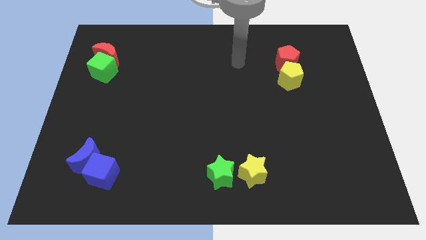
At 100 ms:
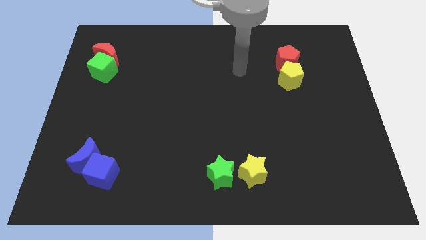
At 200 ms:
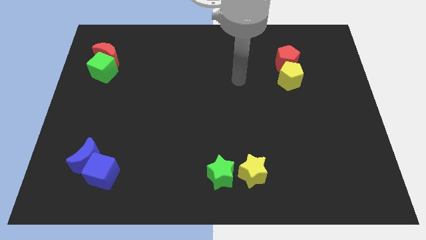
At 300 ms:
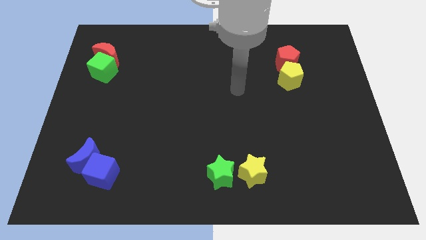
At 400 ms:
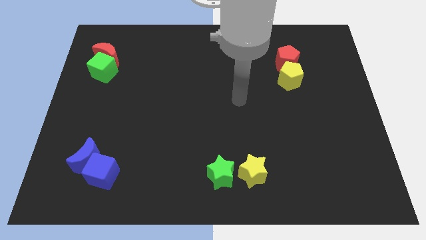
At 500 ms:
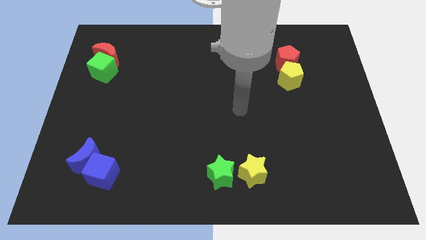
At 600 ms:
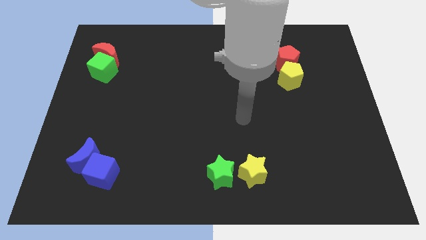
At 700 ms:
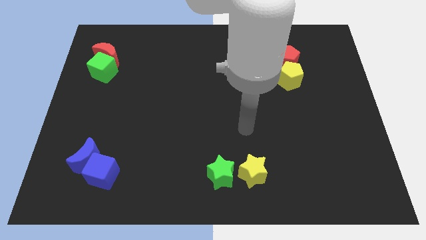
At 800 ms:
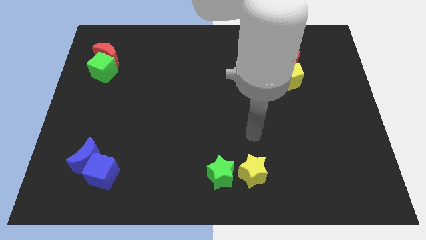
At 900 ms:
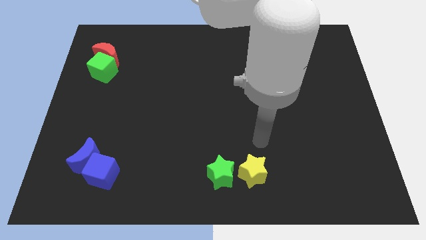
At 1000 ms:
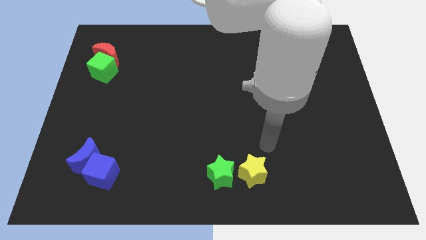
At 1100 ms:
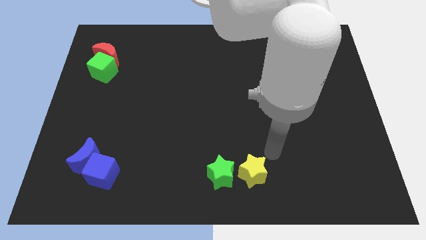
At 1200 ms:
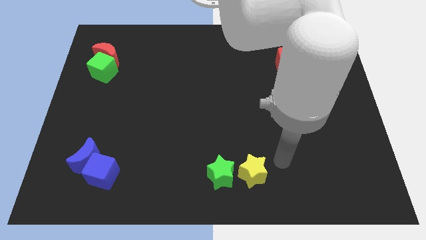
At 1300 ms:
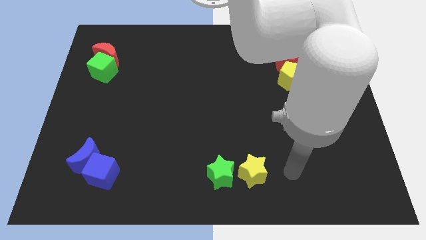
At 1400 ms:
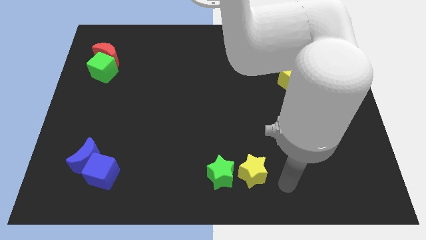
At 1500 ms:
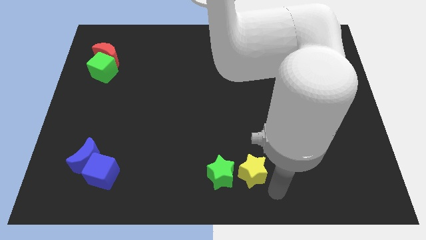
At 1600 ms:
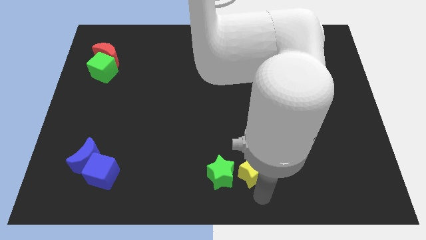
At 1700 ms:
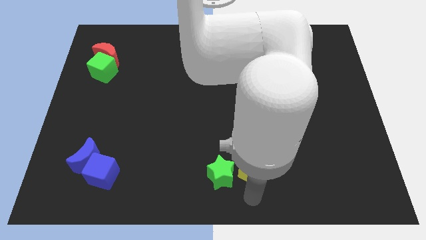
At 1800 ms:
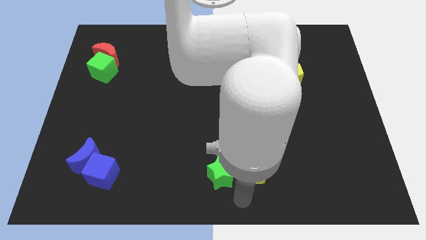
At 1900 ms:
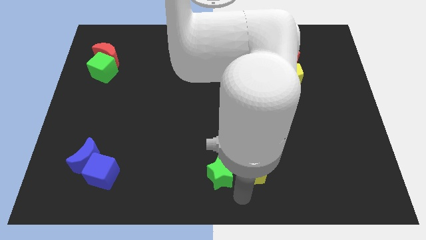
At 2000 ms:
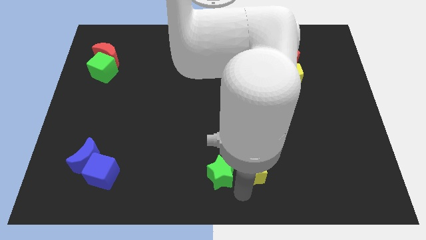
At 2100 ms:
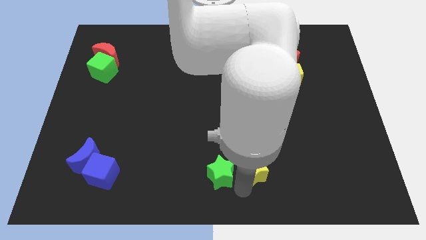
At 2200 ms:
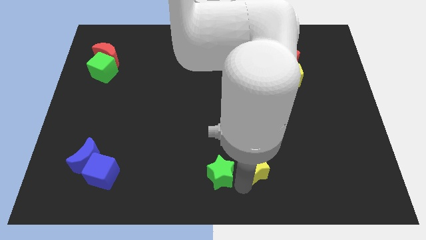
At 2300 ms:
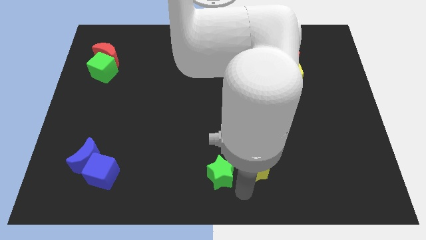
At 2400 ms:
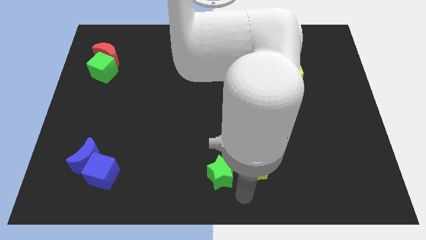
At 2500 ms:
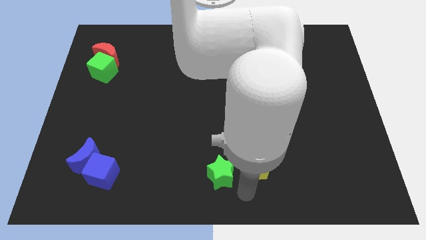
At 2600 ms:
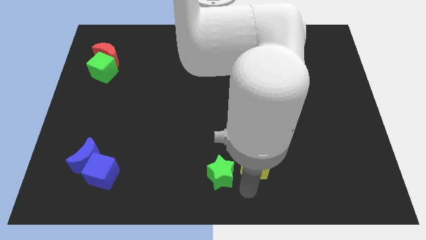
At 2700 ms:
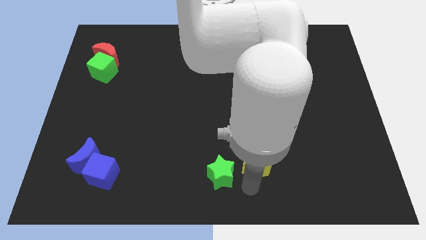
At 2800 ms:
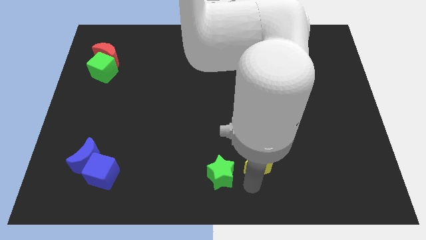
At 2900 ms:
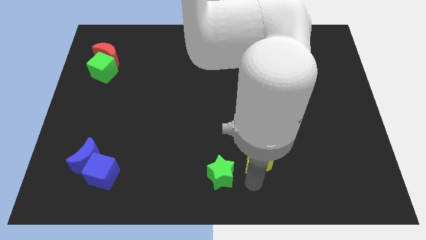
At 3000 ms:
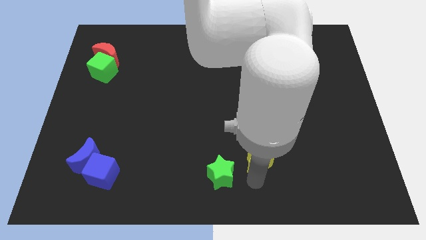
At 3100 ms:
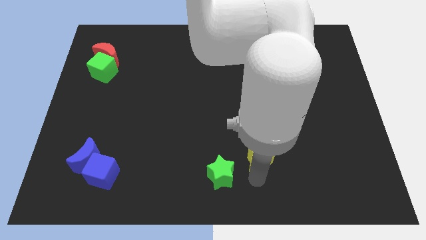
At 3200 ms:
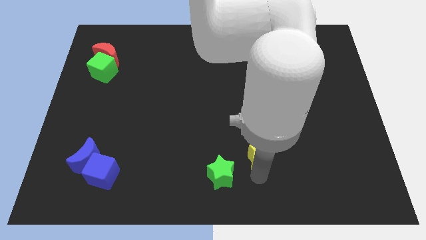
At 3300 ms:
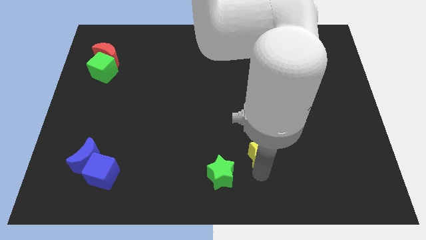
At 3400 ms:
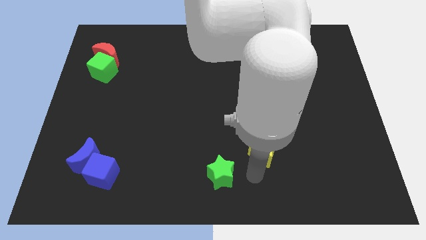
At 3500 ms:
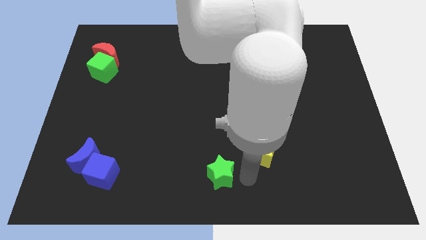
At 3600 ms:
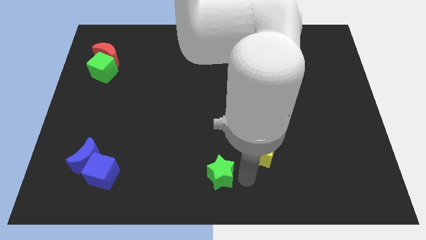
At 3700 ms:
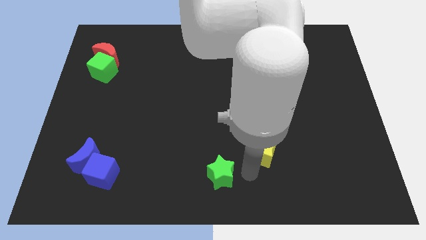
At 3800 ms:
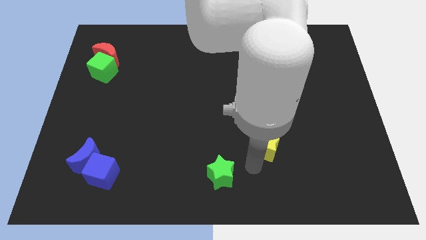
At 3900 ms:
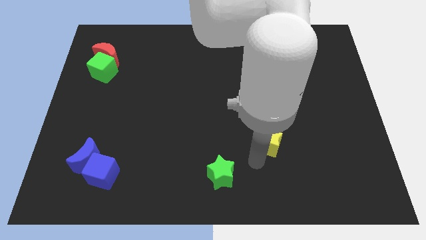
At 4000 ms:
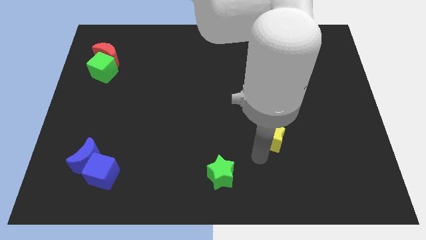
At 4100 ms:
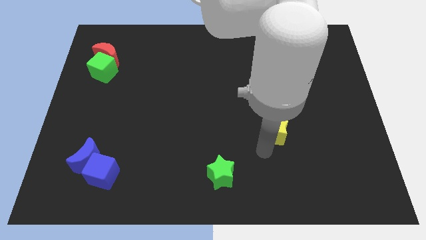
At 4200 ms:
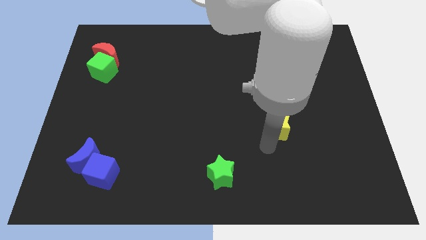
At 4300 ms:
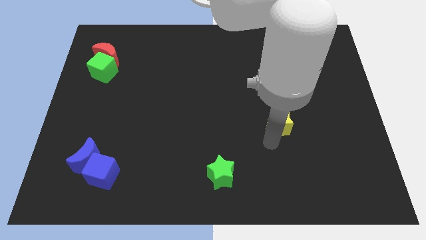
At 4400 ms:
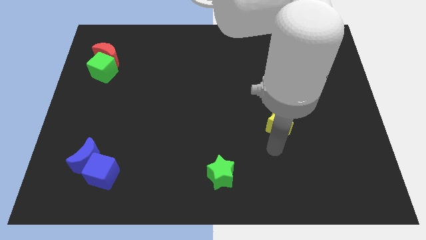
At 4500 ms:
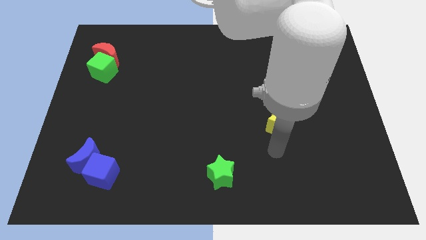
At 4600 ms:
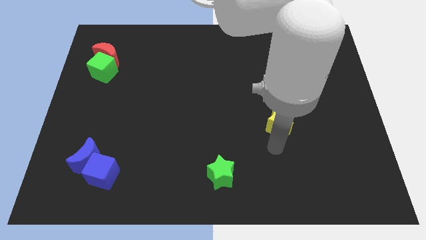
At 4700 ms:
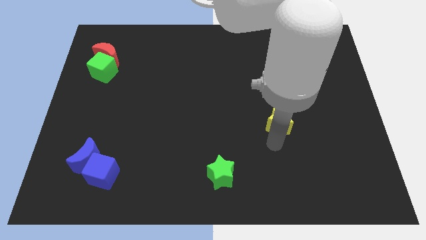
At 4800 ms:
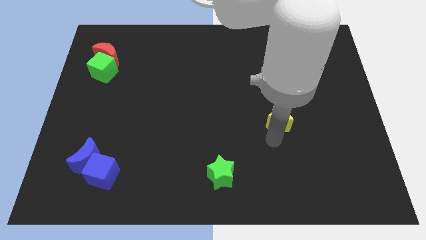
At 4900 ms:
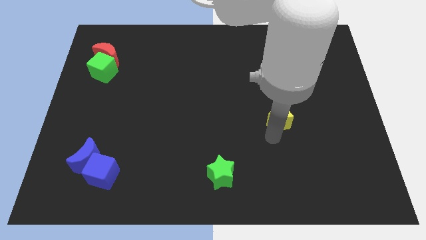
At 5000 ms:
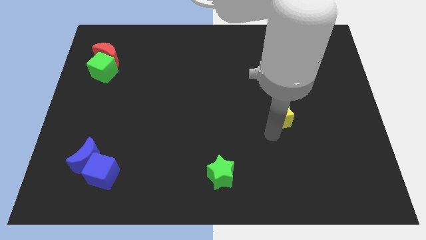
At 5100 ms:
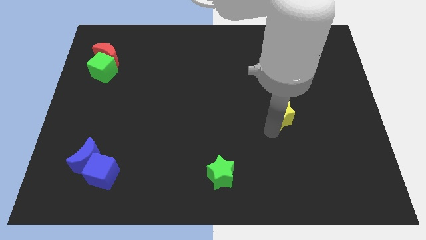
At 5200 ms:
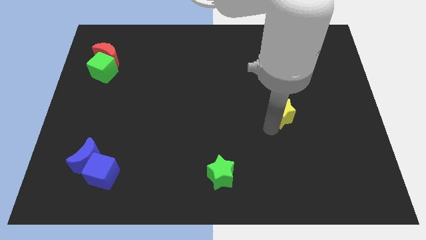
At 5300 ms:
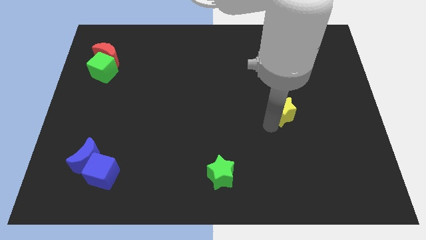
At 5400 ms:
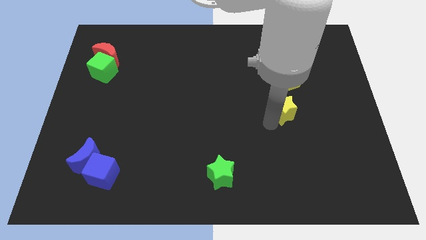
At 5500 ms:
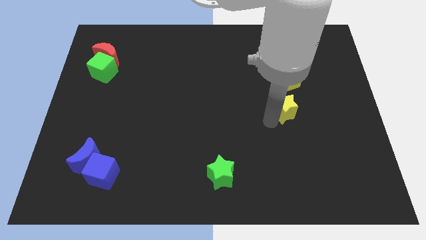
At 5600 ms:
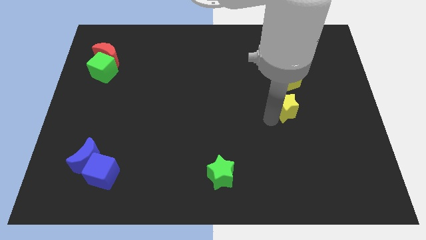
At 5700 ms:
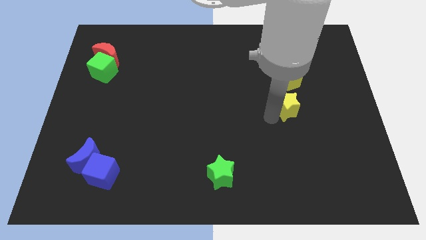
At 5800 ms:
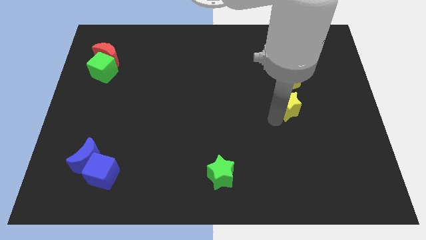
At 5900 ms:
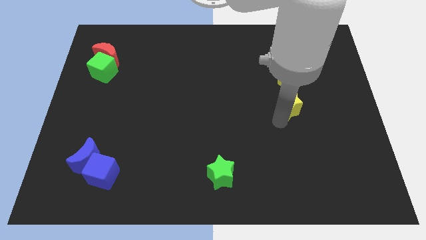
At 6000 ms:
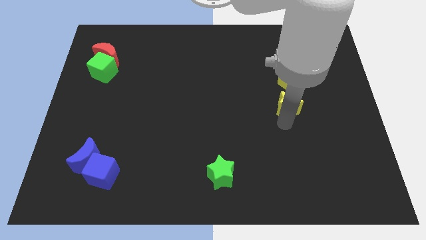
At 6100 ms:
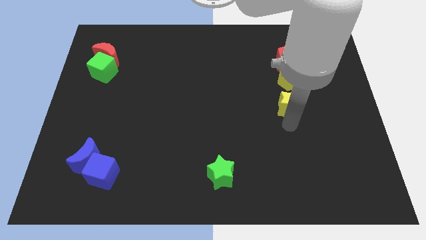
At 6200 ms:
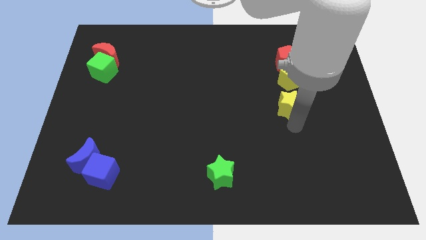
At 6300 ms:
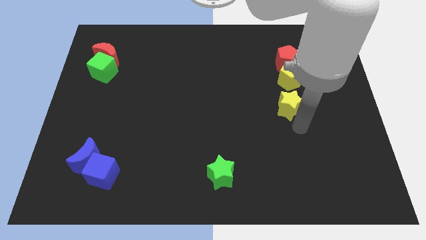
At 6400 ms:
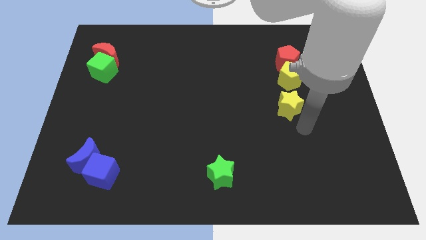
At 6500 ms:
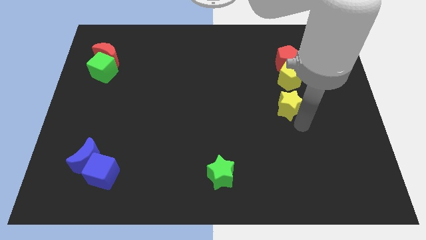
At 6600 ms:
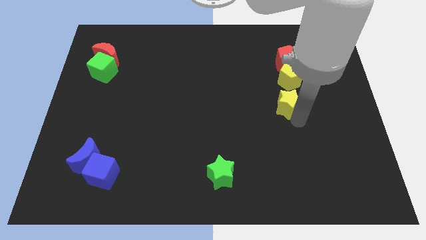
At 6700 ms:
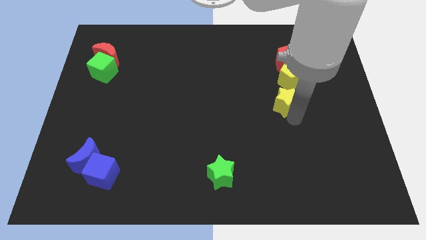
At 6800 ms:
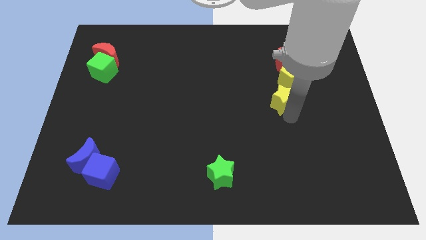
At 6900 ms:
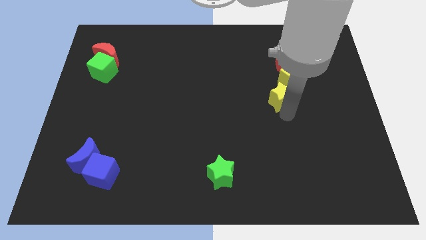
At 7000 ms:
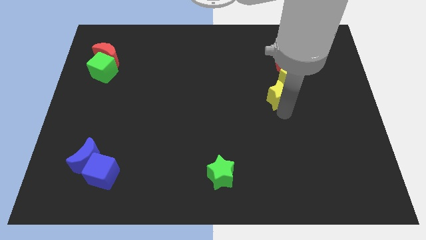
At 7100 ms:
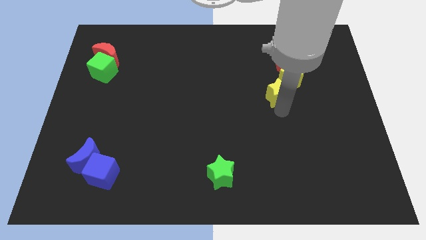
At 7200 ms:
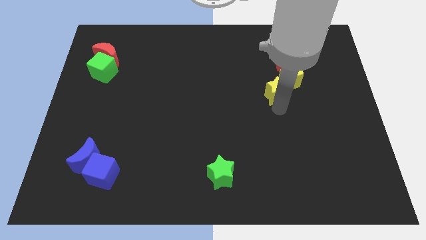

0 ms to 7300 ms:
slide the yellow star close to the yellow pentagon
